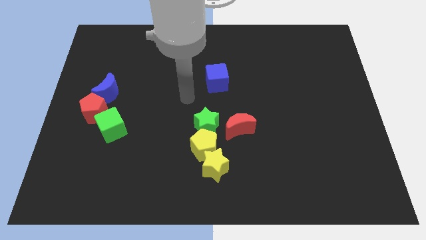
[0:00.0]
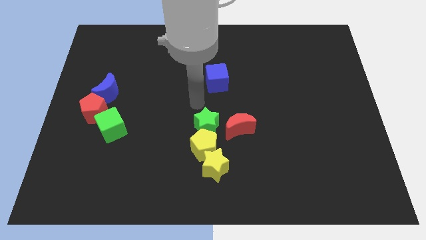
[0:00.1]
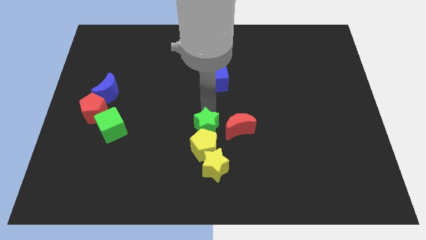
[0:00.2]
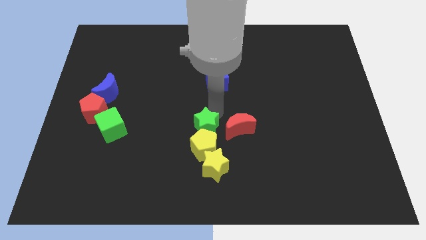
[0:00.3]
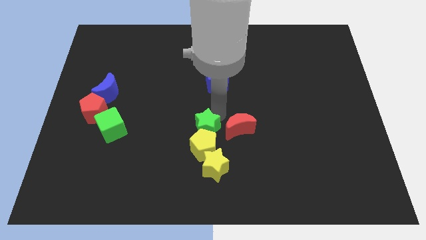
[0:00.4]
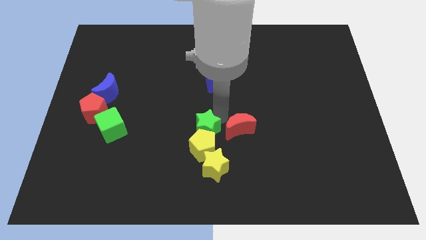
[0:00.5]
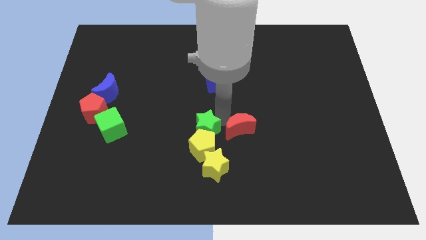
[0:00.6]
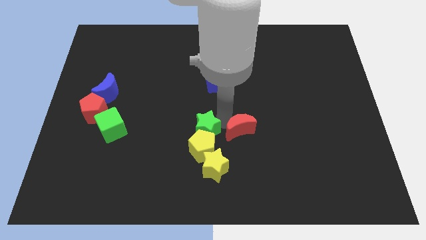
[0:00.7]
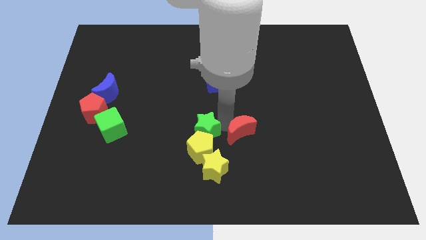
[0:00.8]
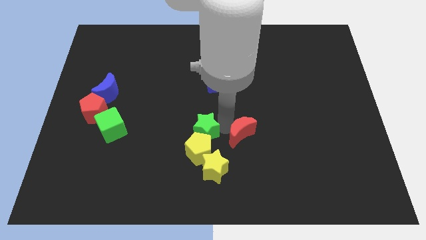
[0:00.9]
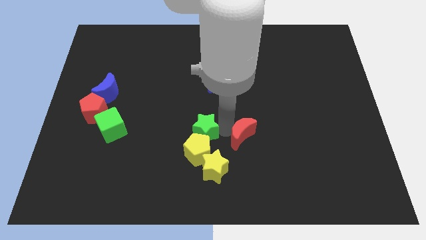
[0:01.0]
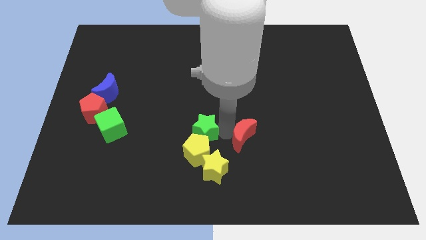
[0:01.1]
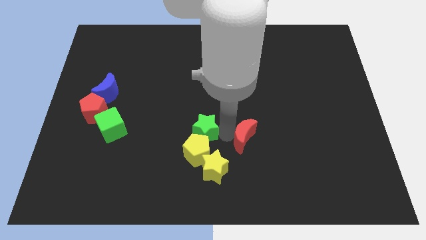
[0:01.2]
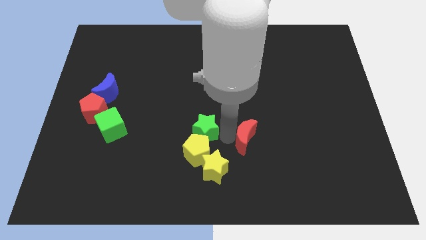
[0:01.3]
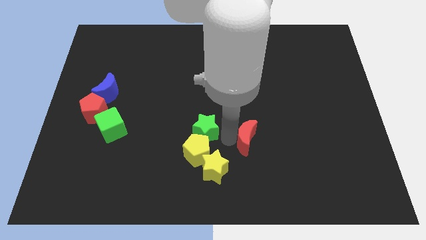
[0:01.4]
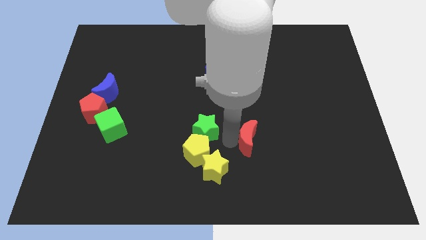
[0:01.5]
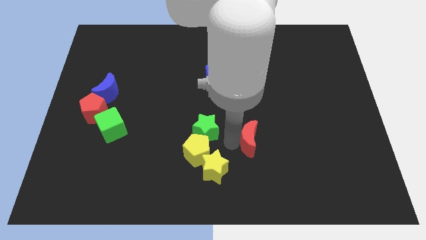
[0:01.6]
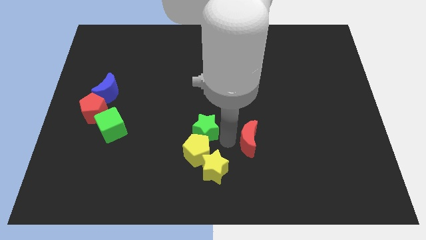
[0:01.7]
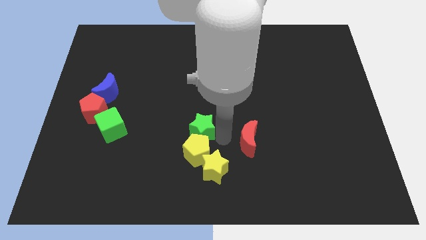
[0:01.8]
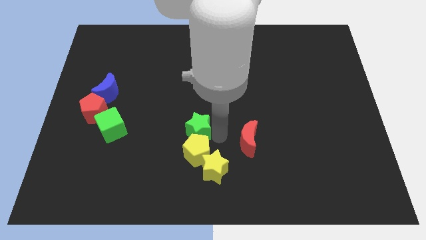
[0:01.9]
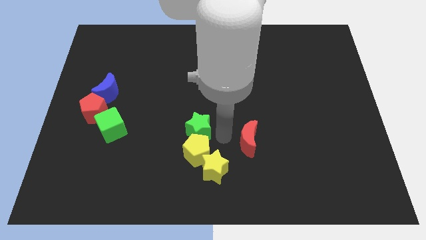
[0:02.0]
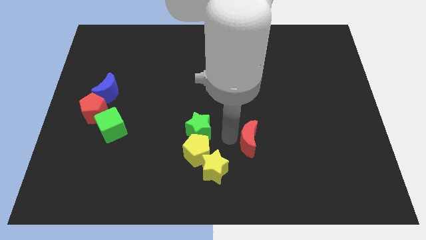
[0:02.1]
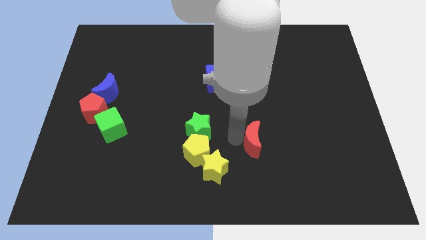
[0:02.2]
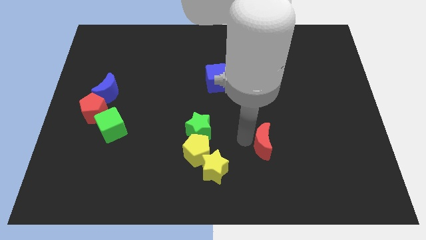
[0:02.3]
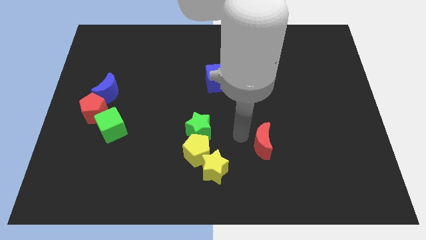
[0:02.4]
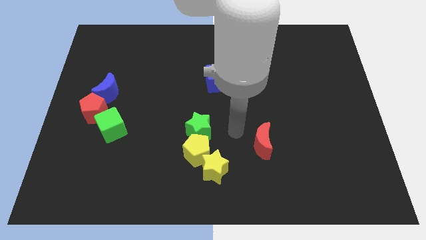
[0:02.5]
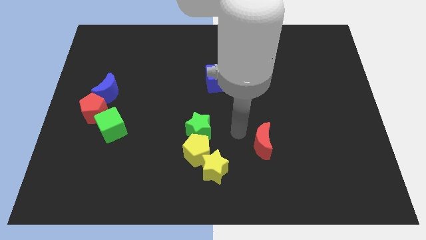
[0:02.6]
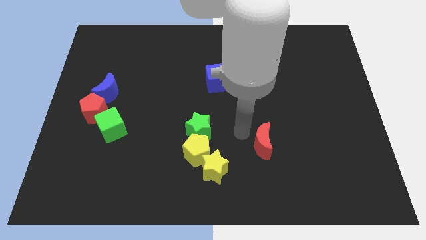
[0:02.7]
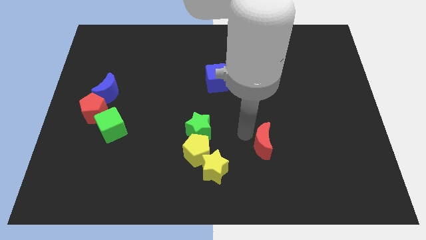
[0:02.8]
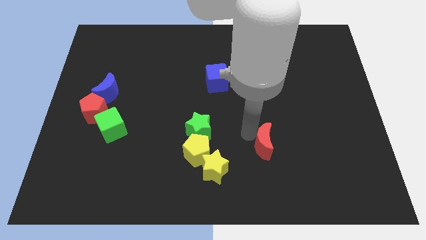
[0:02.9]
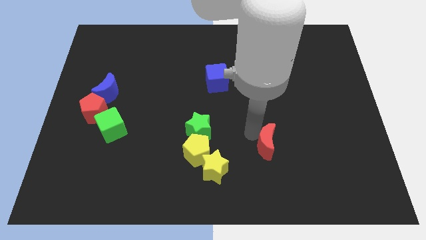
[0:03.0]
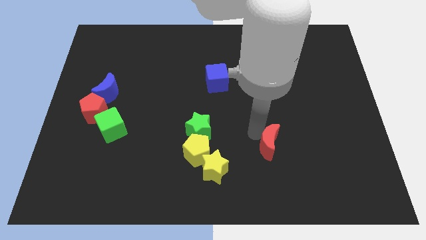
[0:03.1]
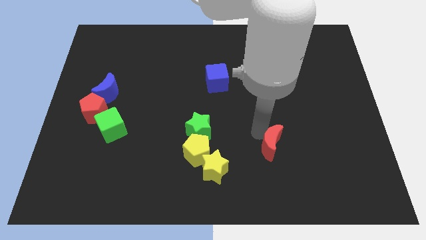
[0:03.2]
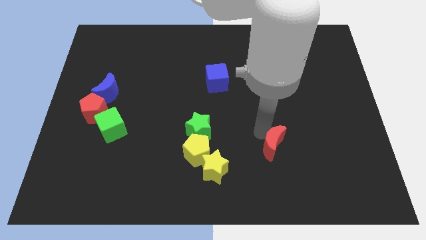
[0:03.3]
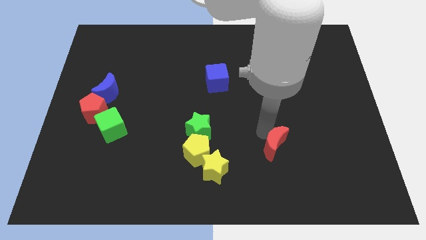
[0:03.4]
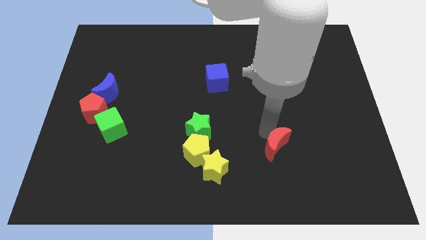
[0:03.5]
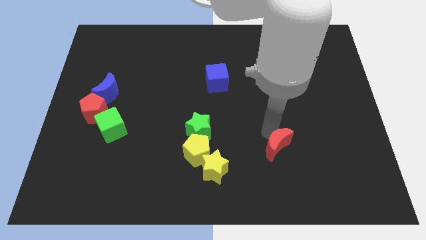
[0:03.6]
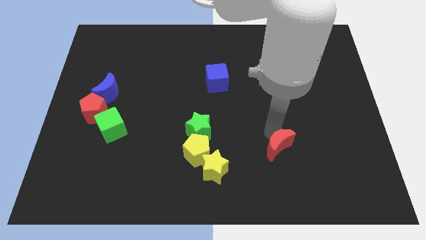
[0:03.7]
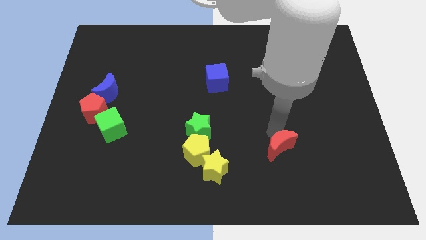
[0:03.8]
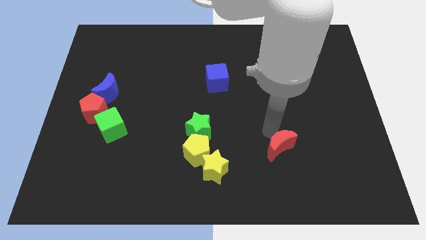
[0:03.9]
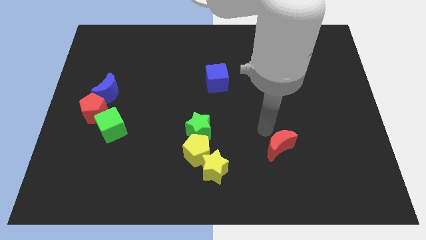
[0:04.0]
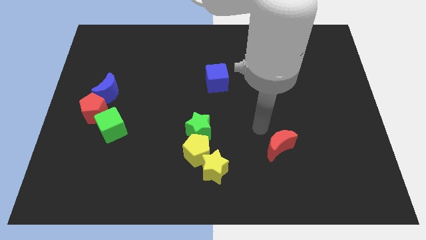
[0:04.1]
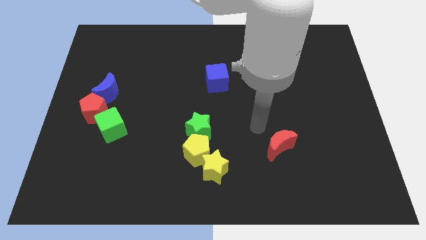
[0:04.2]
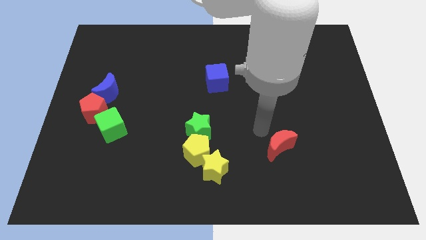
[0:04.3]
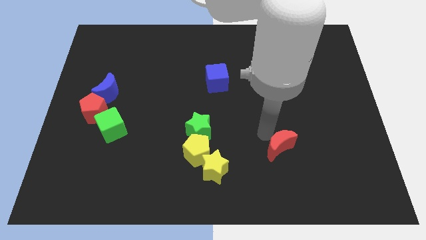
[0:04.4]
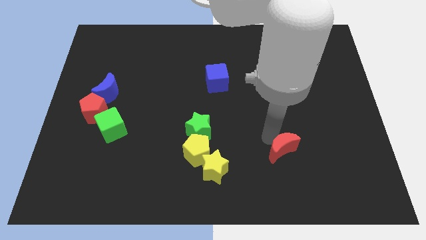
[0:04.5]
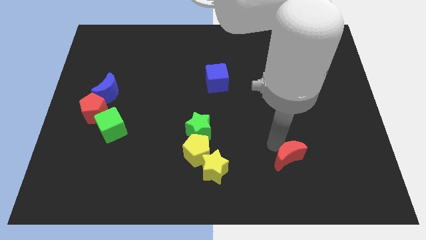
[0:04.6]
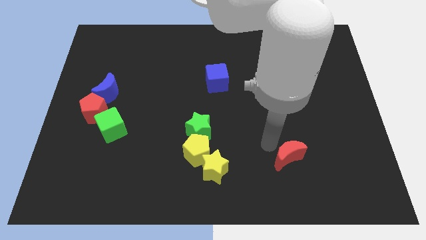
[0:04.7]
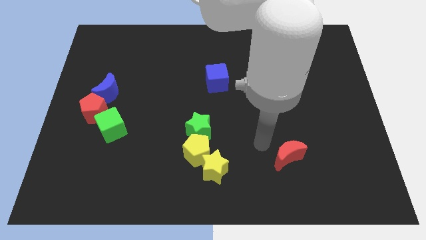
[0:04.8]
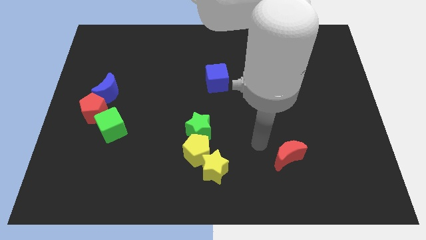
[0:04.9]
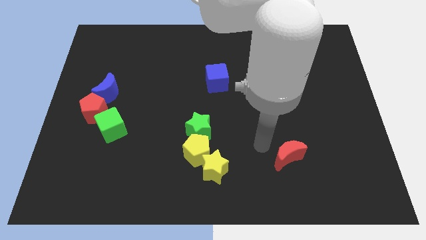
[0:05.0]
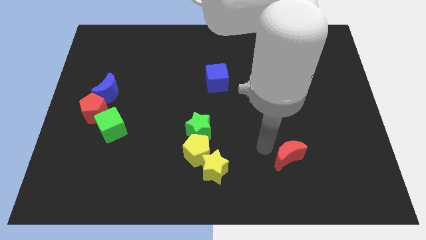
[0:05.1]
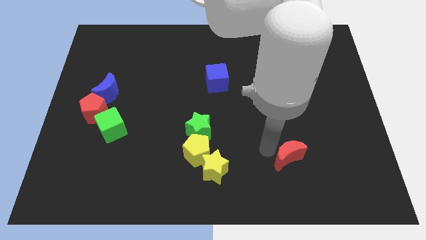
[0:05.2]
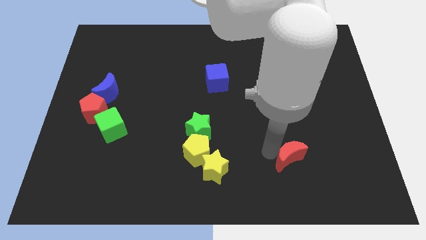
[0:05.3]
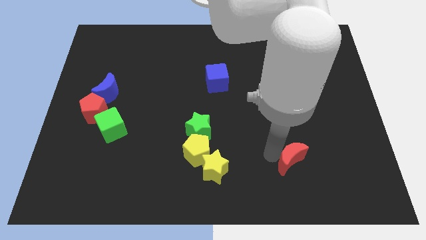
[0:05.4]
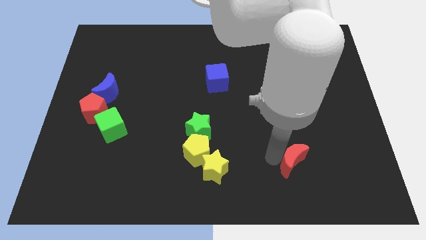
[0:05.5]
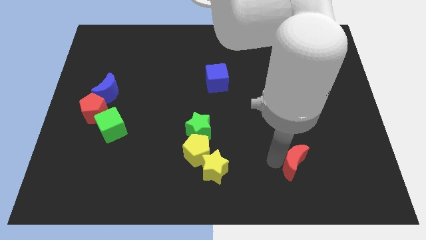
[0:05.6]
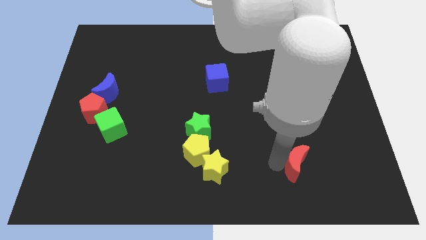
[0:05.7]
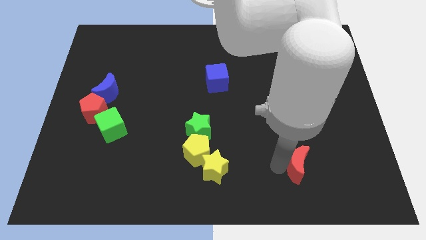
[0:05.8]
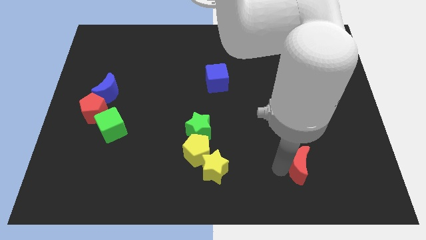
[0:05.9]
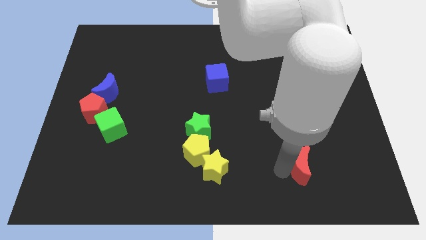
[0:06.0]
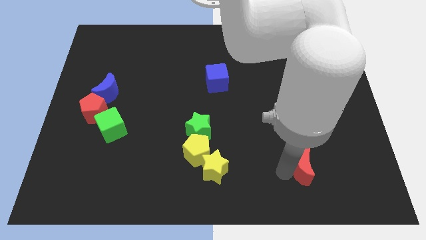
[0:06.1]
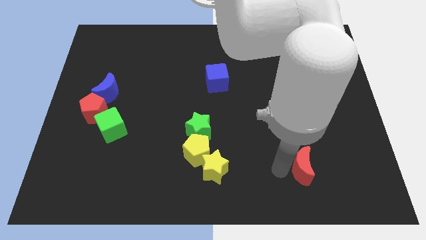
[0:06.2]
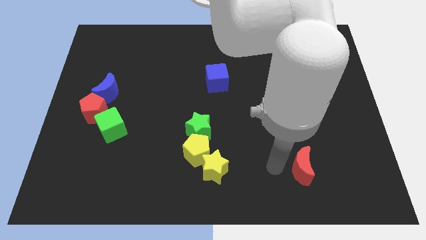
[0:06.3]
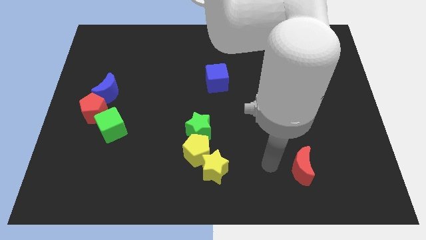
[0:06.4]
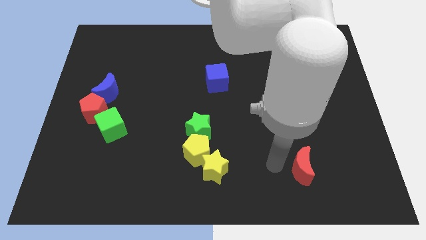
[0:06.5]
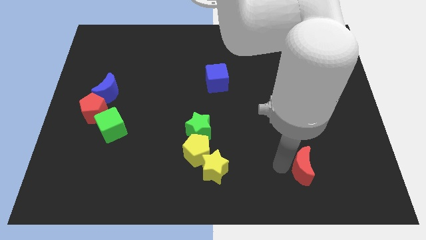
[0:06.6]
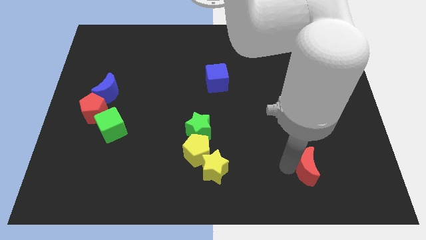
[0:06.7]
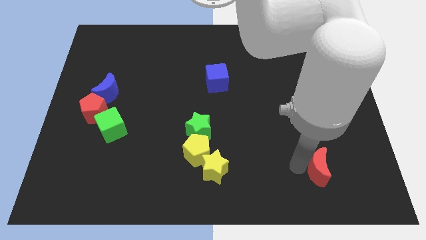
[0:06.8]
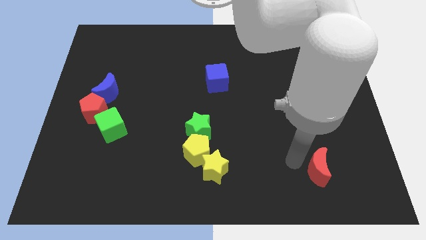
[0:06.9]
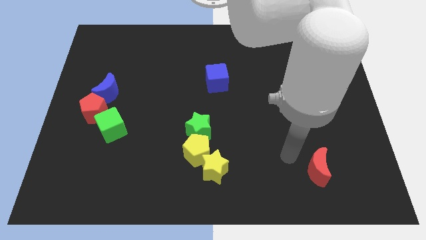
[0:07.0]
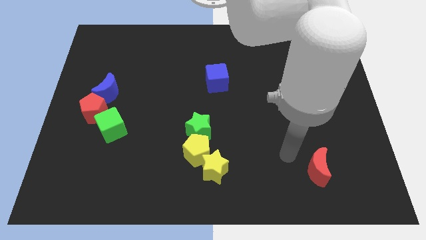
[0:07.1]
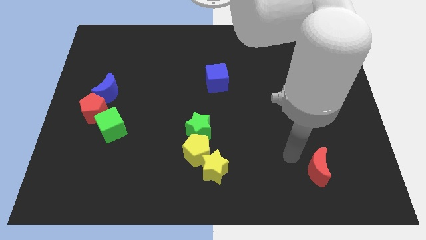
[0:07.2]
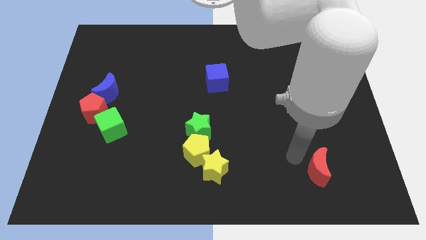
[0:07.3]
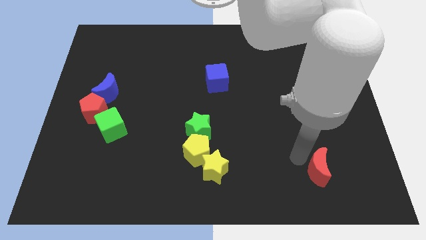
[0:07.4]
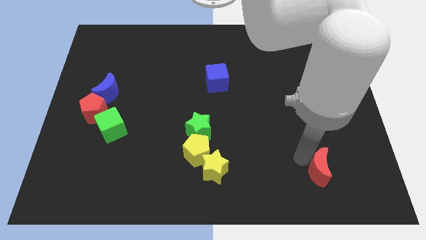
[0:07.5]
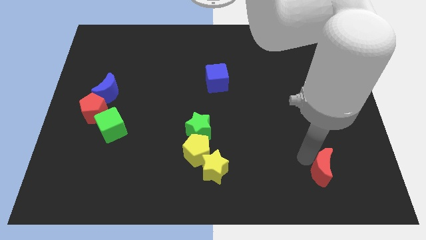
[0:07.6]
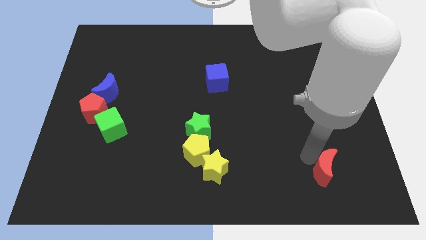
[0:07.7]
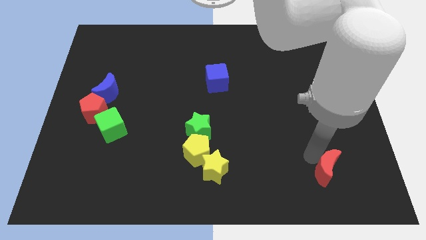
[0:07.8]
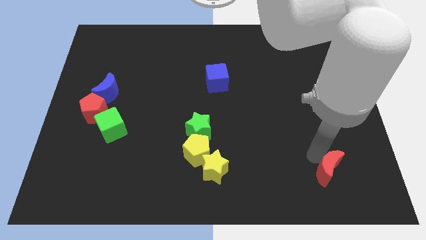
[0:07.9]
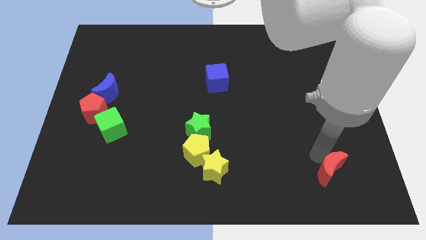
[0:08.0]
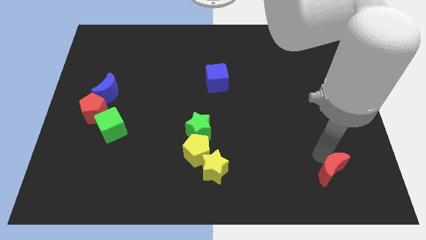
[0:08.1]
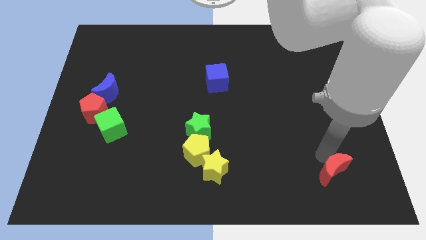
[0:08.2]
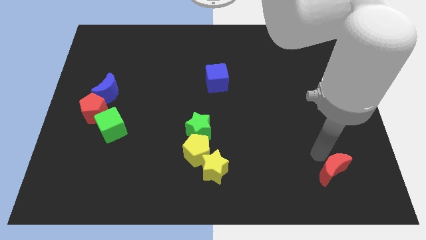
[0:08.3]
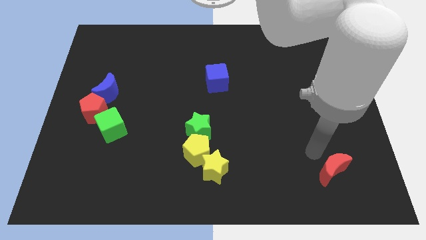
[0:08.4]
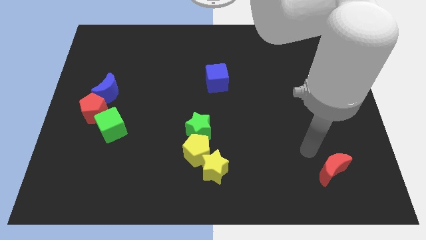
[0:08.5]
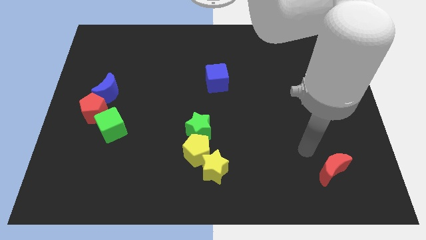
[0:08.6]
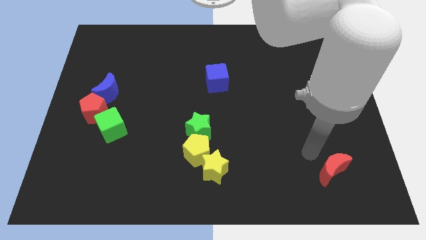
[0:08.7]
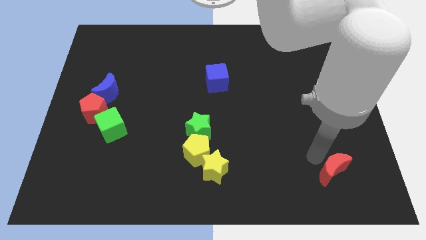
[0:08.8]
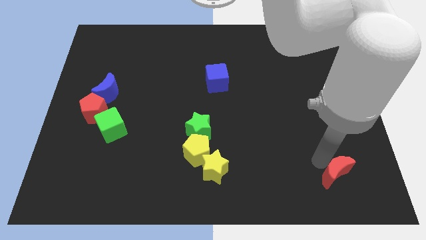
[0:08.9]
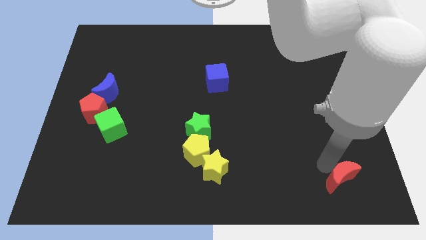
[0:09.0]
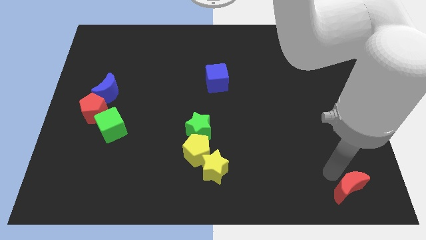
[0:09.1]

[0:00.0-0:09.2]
push the red moon to the bottom right
